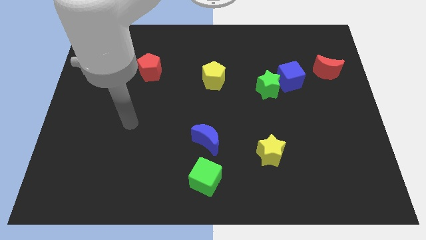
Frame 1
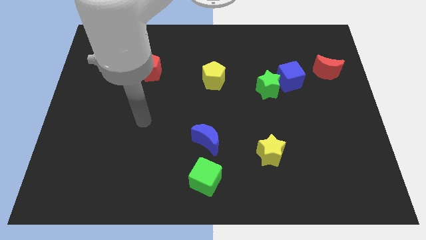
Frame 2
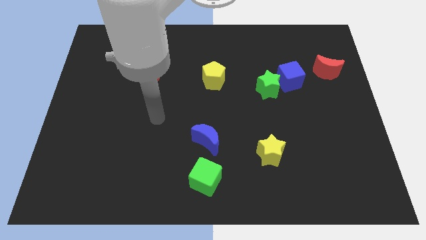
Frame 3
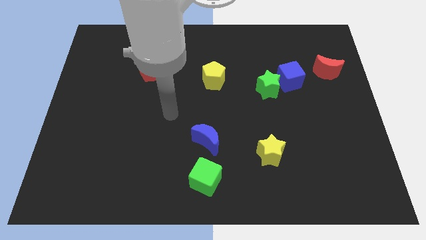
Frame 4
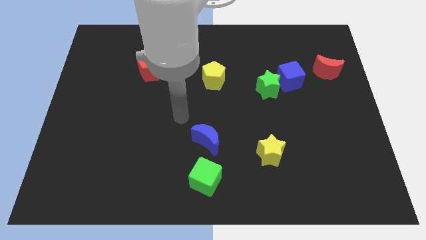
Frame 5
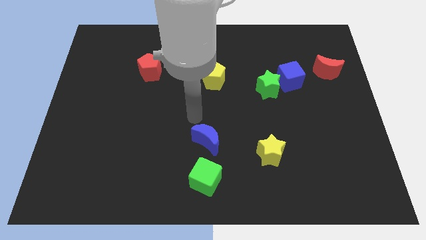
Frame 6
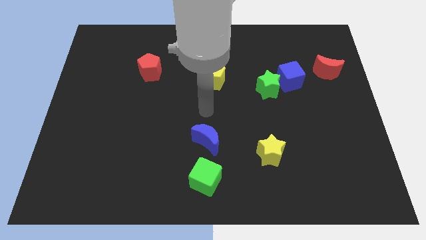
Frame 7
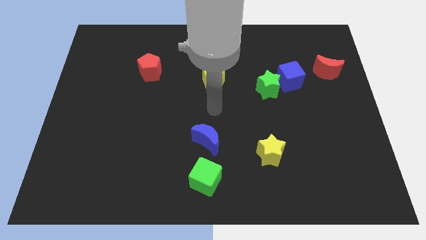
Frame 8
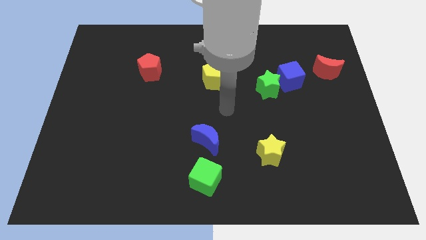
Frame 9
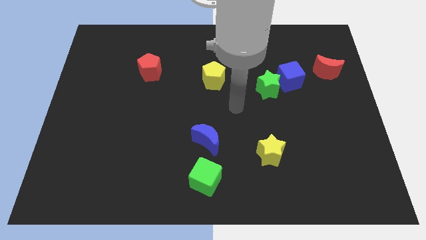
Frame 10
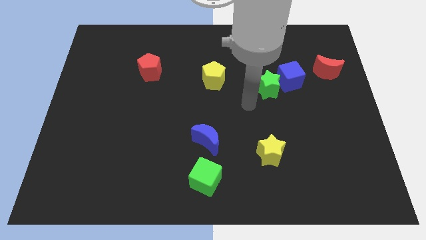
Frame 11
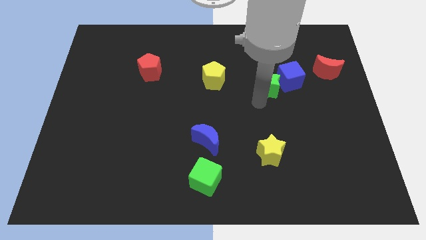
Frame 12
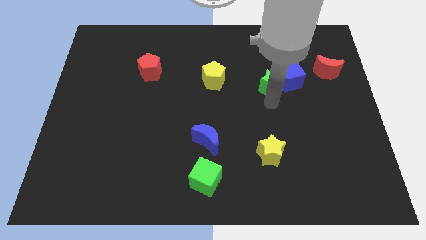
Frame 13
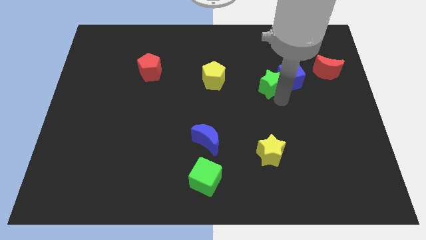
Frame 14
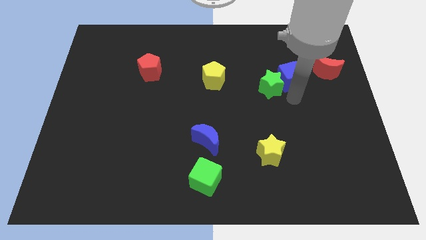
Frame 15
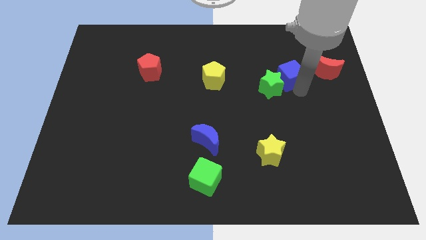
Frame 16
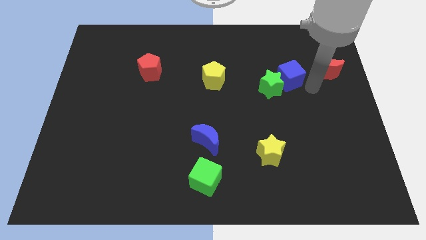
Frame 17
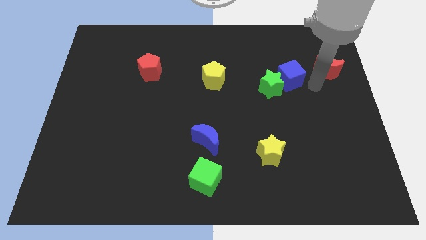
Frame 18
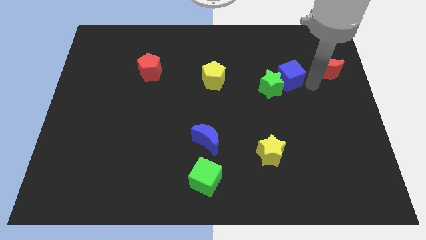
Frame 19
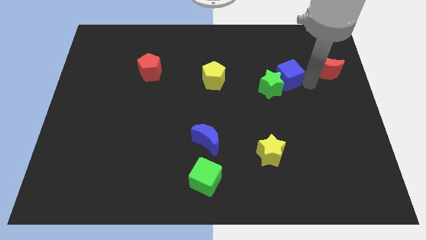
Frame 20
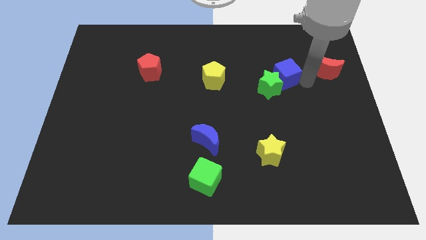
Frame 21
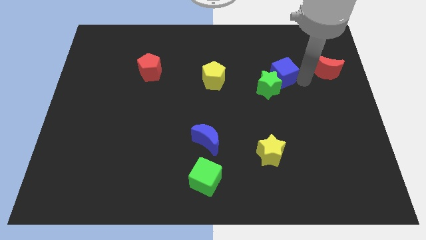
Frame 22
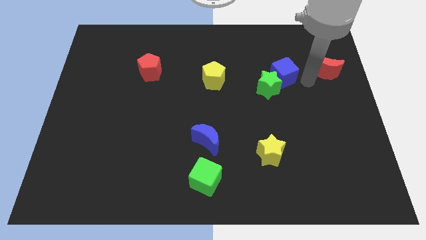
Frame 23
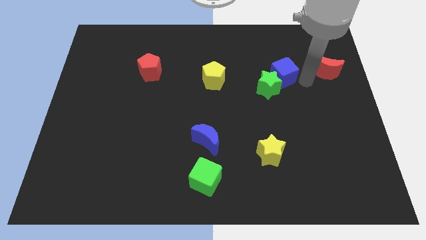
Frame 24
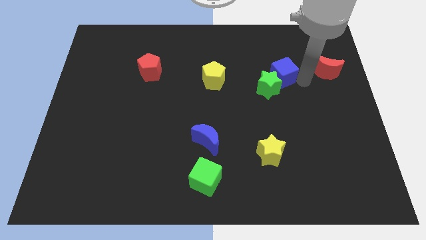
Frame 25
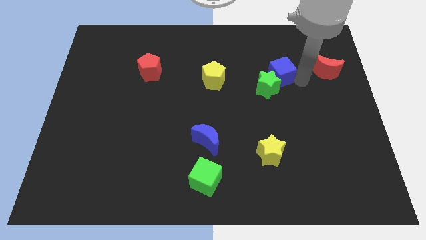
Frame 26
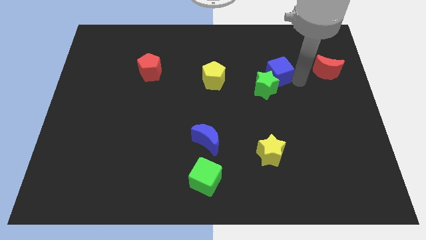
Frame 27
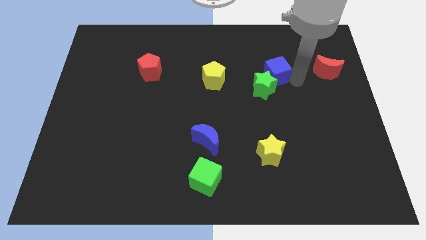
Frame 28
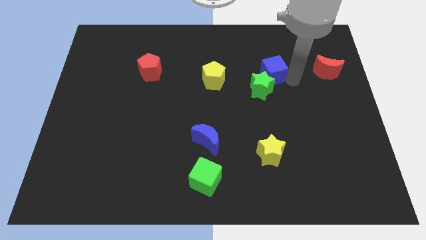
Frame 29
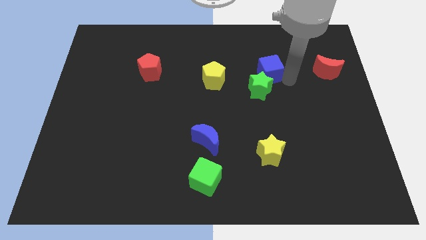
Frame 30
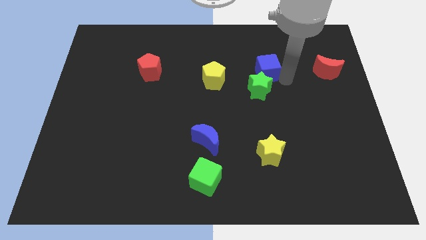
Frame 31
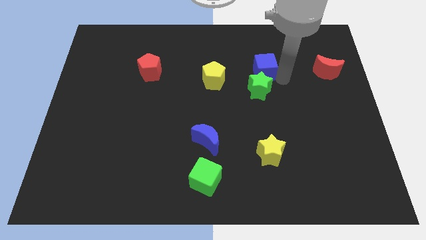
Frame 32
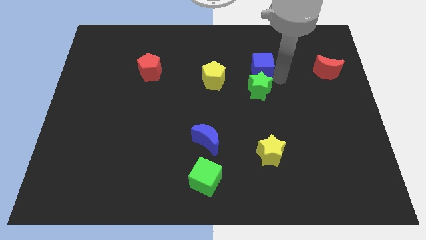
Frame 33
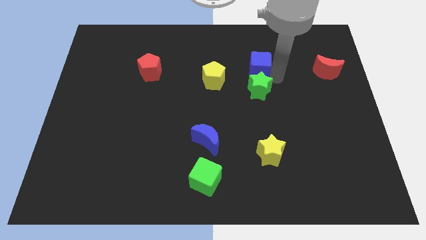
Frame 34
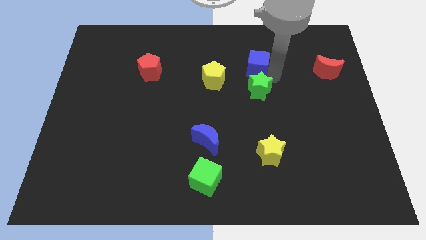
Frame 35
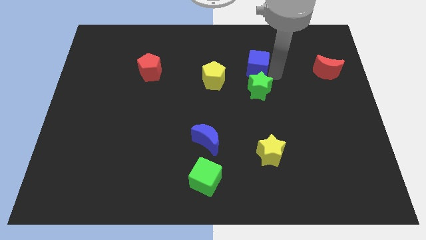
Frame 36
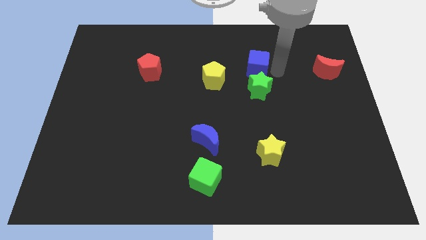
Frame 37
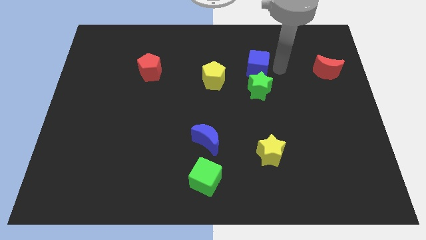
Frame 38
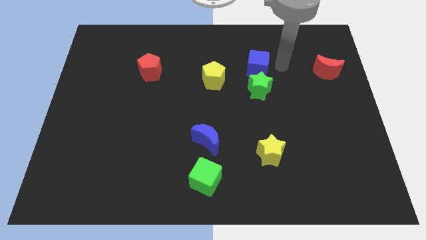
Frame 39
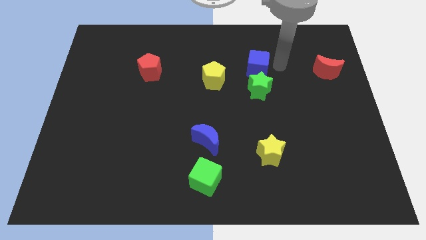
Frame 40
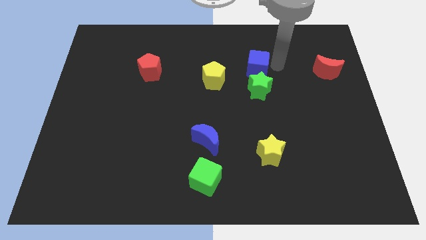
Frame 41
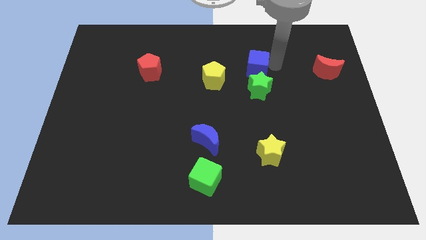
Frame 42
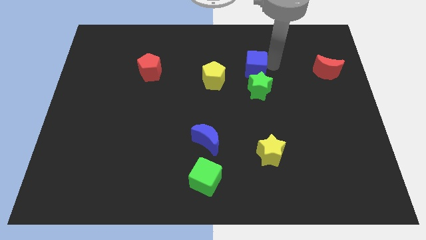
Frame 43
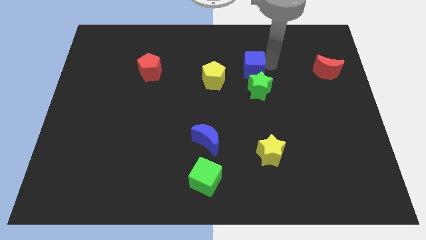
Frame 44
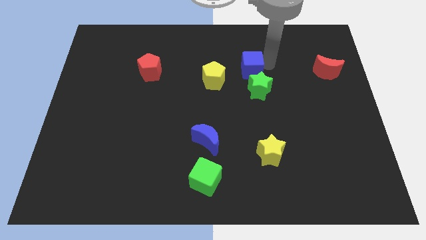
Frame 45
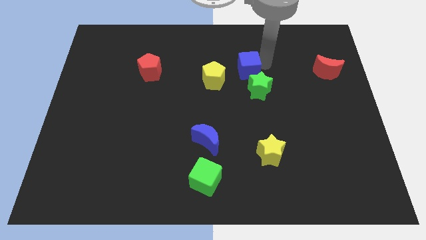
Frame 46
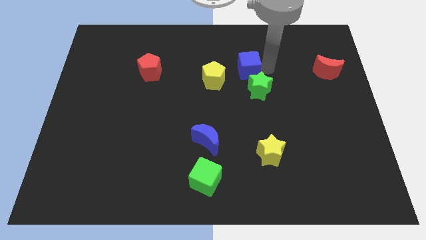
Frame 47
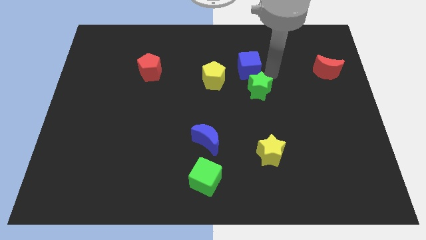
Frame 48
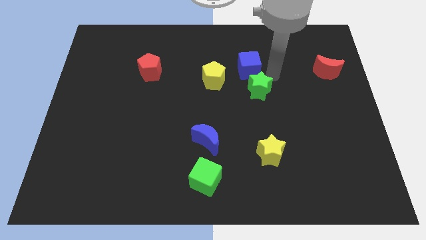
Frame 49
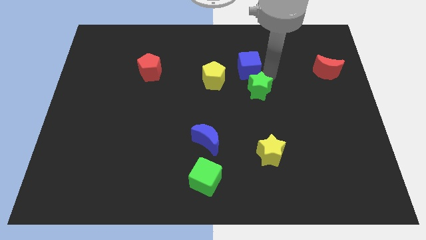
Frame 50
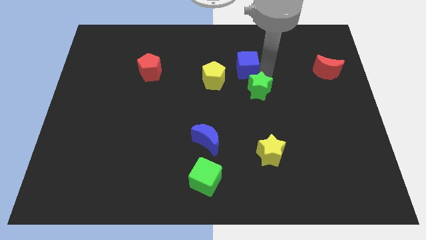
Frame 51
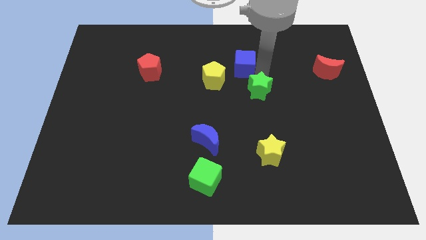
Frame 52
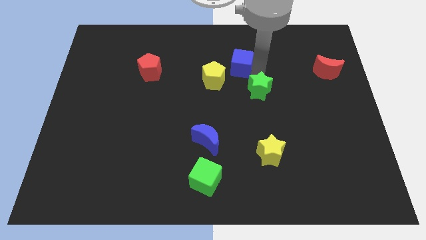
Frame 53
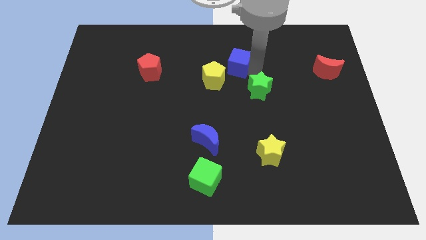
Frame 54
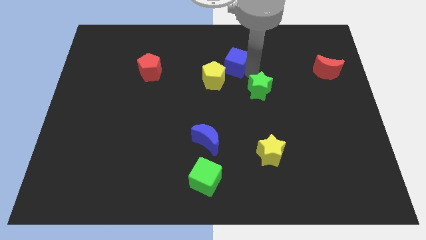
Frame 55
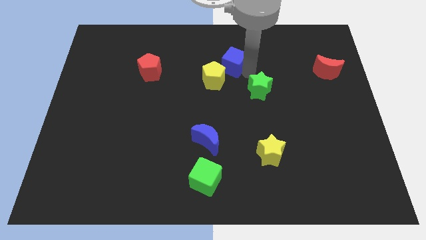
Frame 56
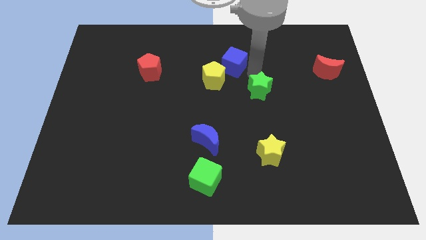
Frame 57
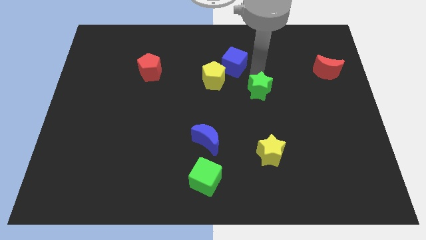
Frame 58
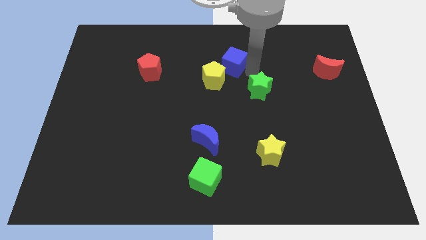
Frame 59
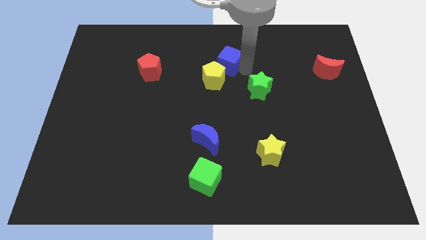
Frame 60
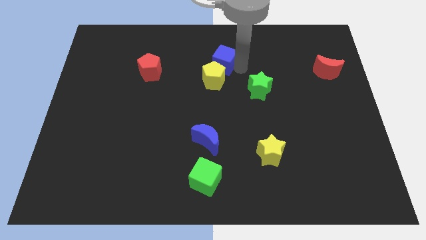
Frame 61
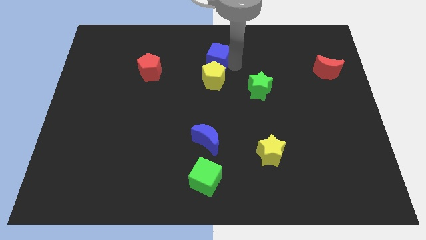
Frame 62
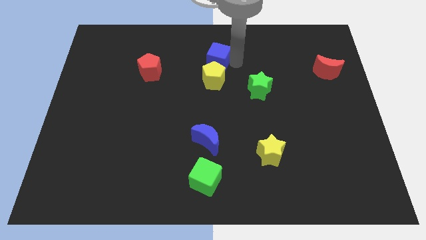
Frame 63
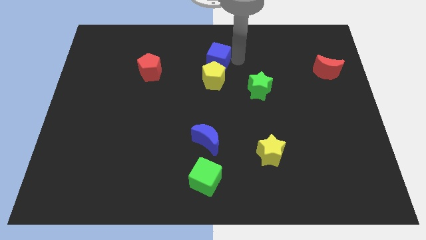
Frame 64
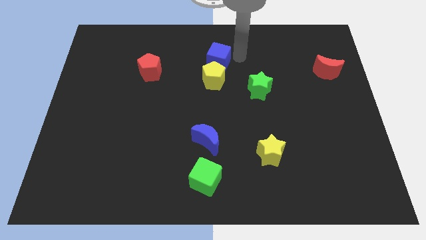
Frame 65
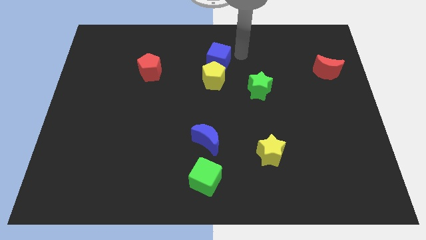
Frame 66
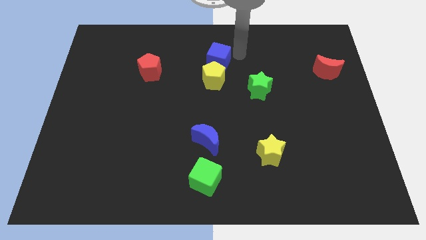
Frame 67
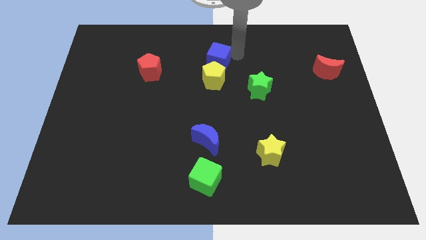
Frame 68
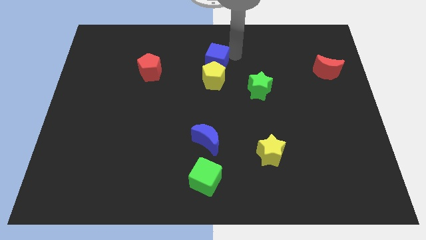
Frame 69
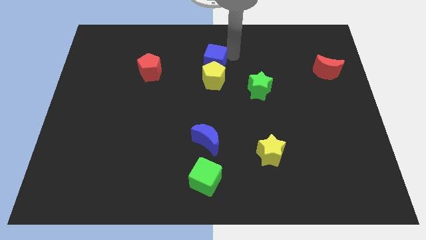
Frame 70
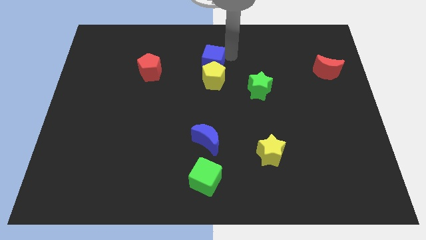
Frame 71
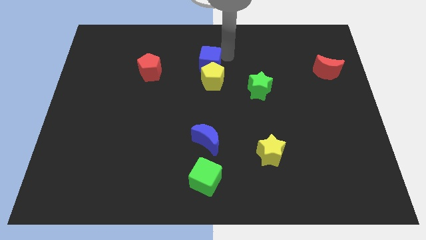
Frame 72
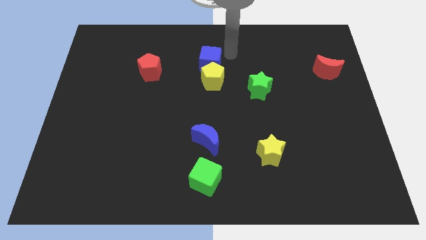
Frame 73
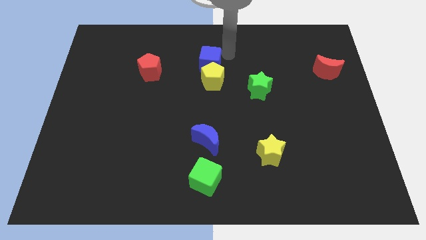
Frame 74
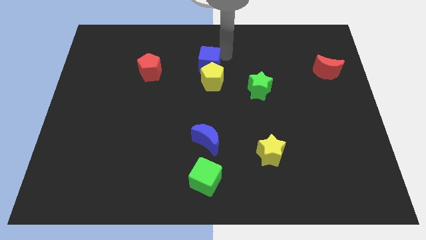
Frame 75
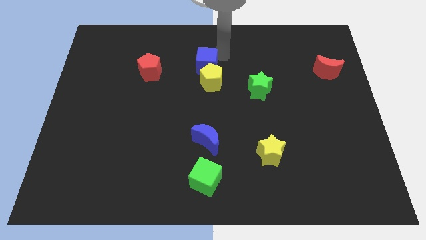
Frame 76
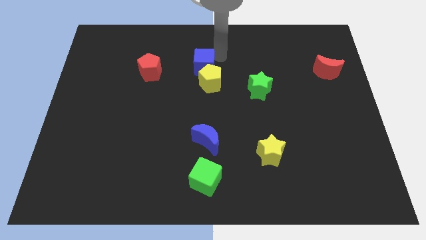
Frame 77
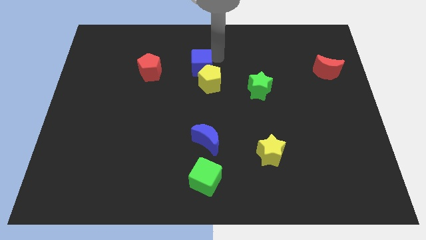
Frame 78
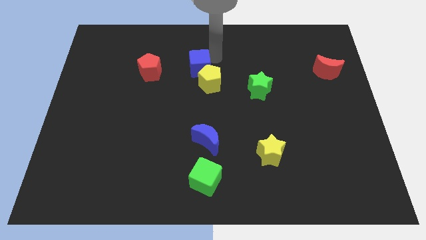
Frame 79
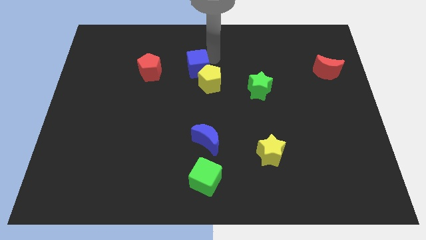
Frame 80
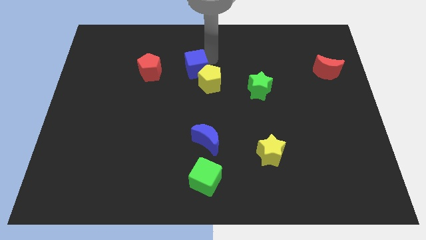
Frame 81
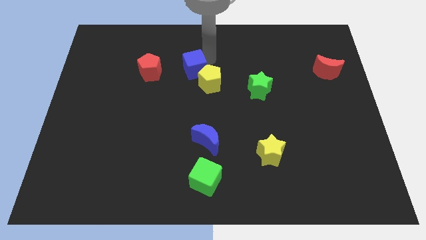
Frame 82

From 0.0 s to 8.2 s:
move the blue cube to the left of the yellow pentagon
